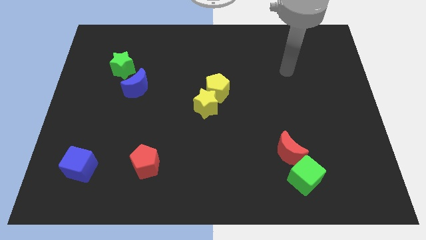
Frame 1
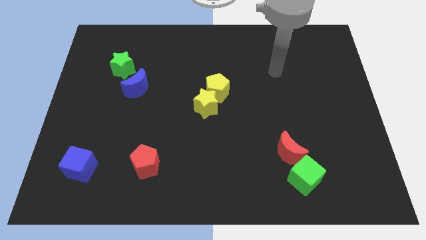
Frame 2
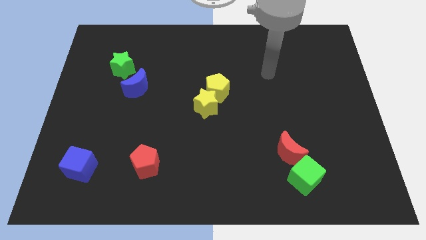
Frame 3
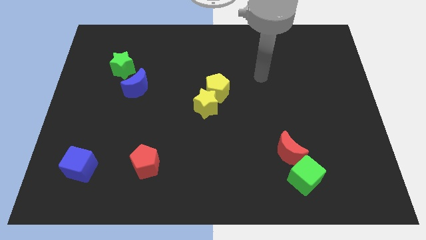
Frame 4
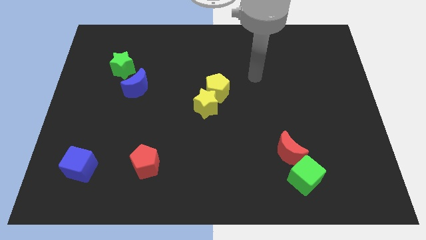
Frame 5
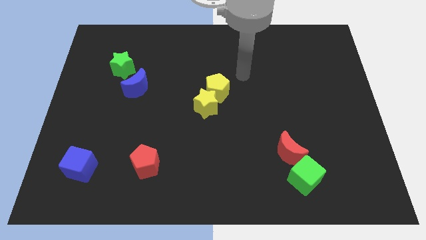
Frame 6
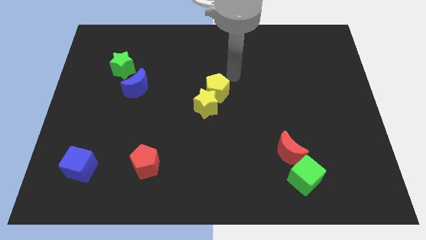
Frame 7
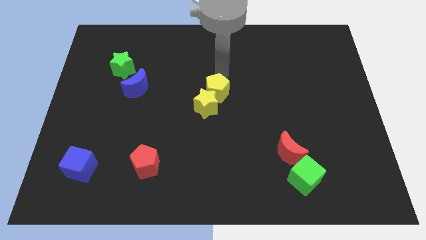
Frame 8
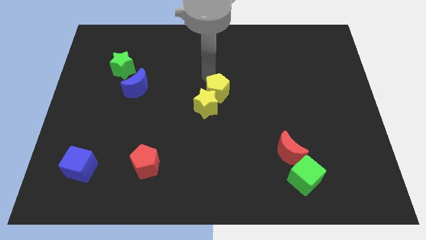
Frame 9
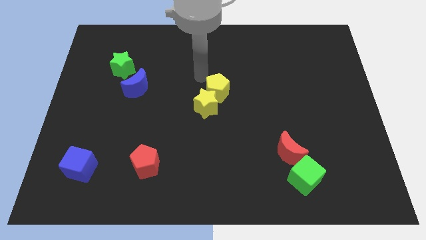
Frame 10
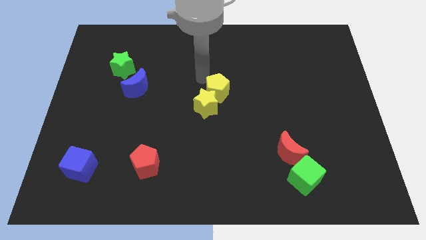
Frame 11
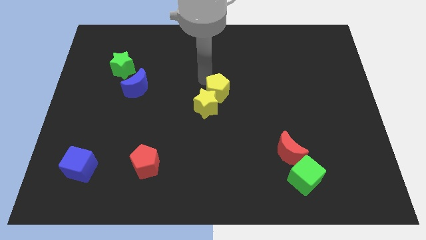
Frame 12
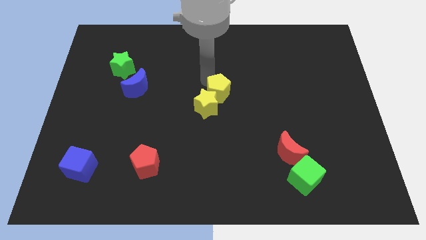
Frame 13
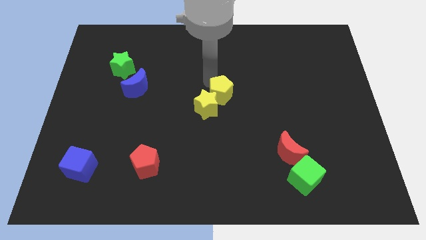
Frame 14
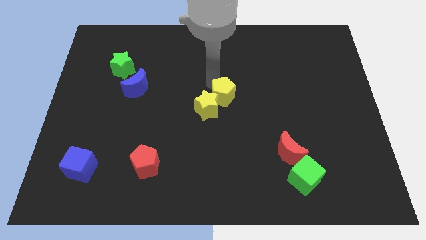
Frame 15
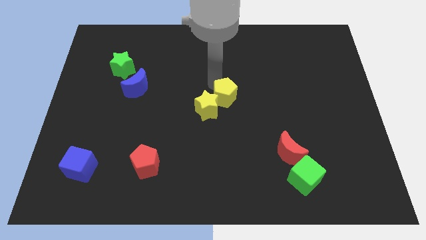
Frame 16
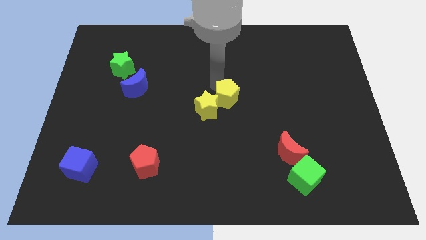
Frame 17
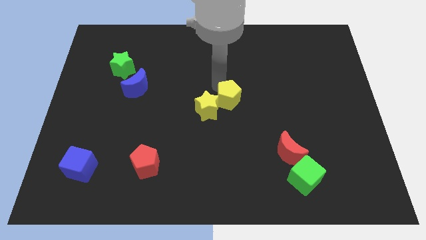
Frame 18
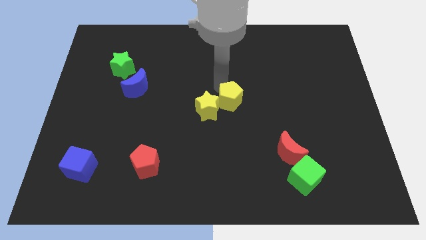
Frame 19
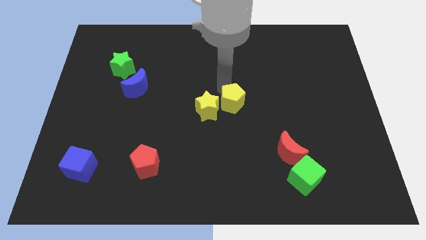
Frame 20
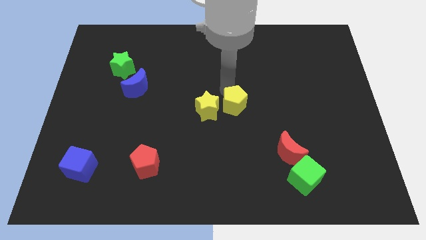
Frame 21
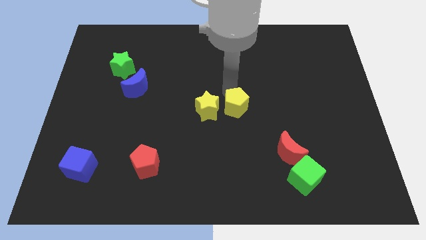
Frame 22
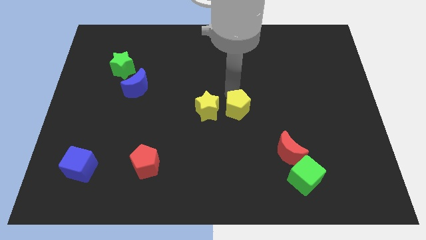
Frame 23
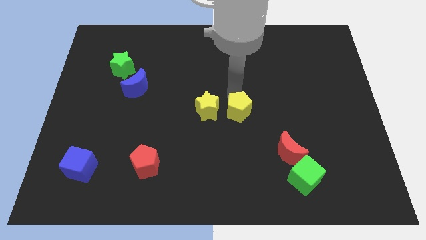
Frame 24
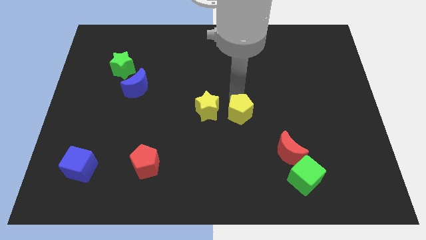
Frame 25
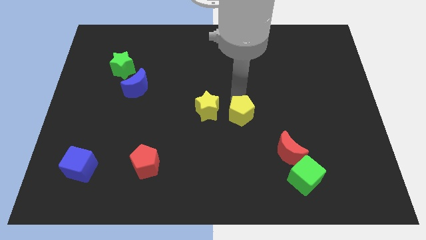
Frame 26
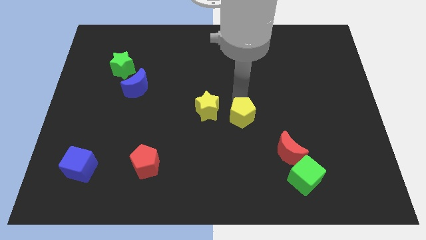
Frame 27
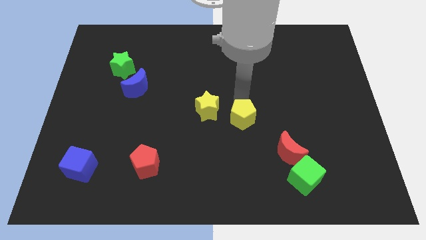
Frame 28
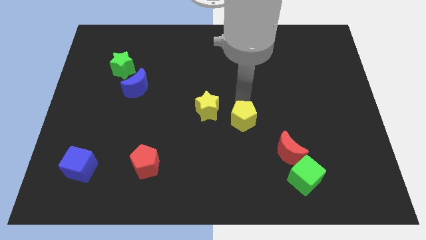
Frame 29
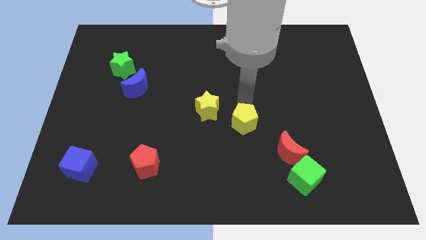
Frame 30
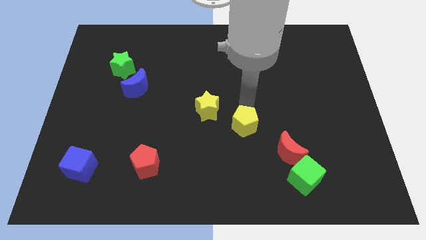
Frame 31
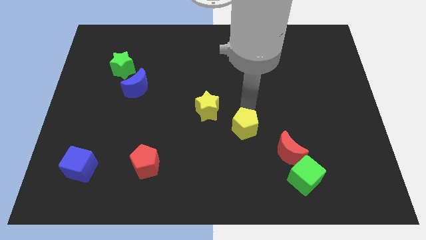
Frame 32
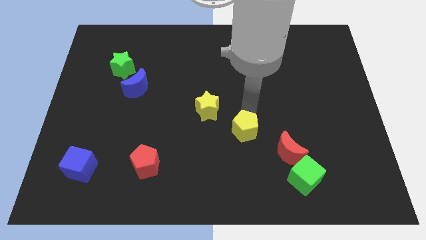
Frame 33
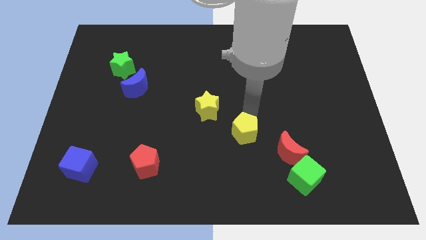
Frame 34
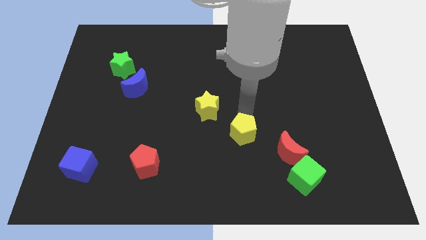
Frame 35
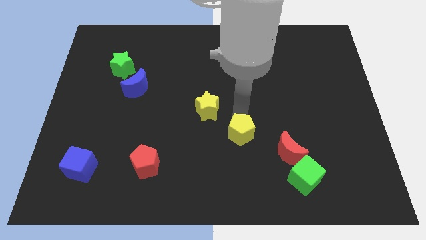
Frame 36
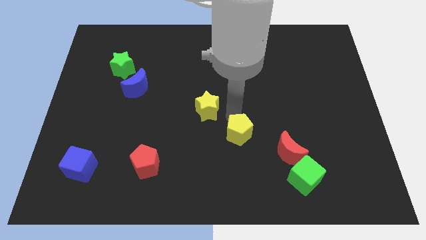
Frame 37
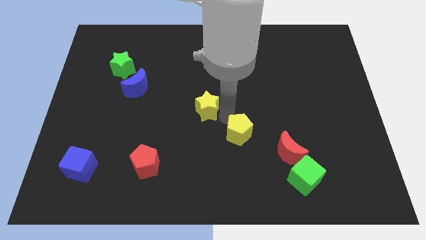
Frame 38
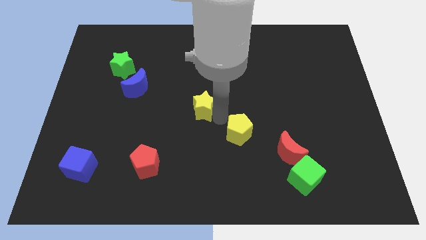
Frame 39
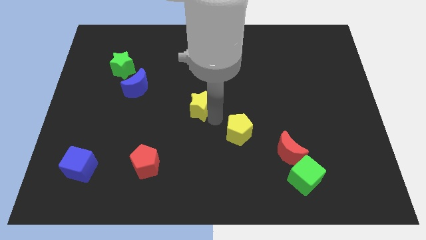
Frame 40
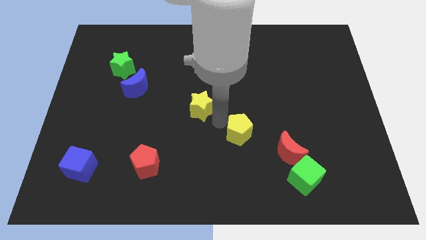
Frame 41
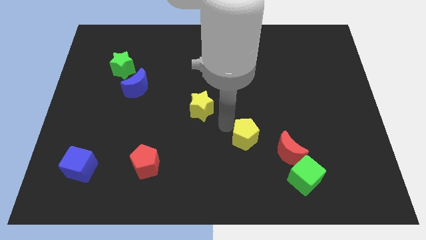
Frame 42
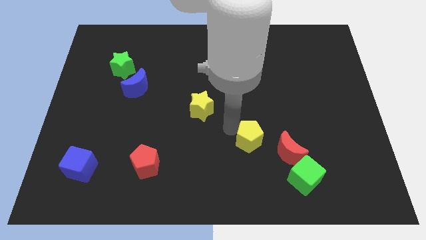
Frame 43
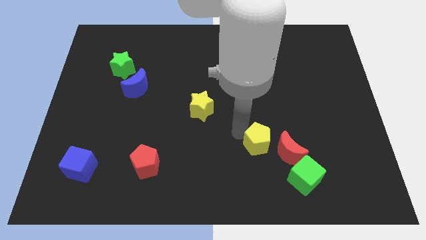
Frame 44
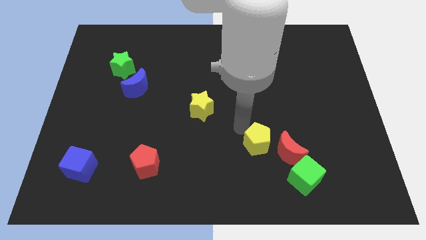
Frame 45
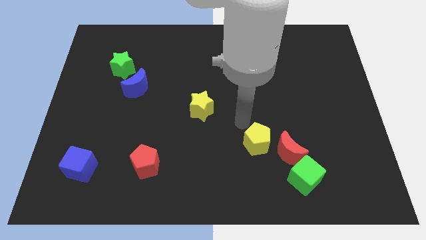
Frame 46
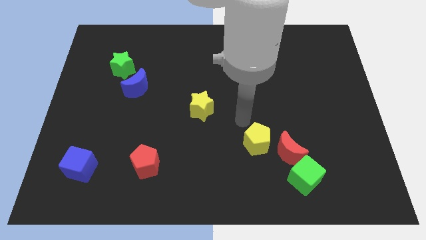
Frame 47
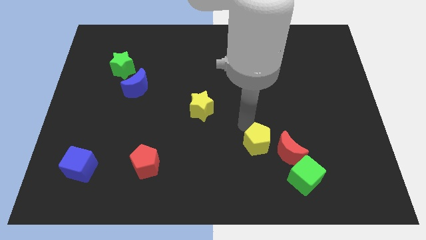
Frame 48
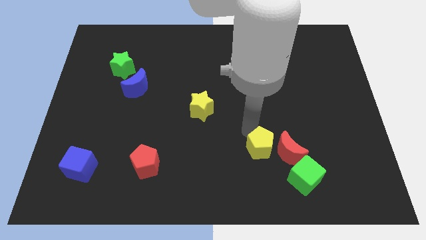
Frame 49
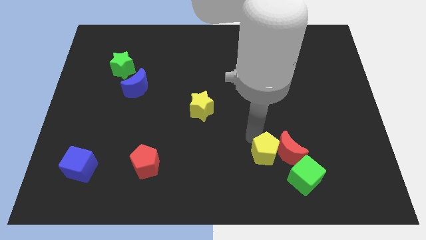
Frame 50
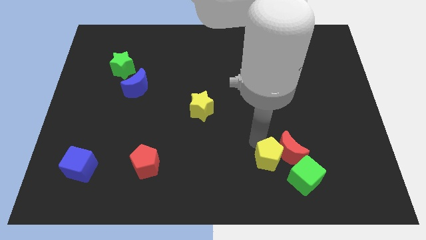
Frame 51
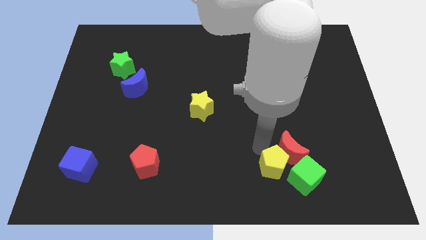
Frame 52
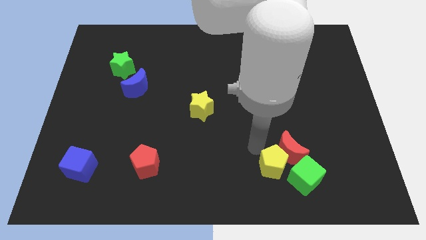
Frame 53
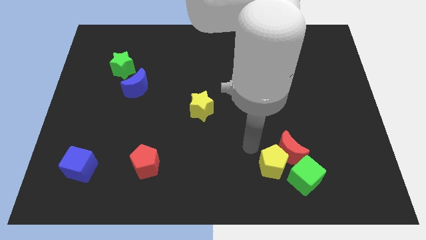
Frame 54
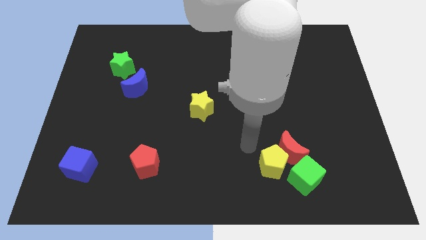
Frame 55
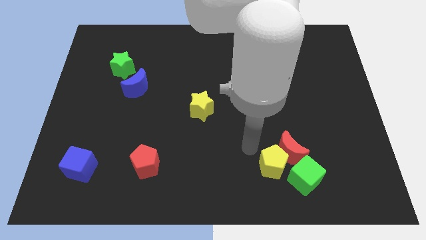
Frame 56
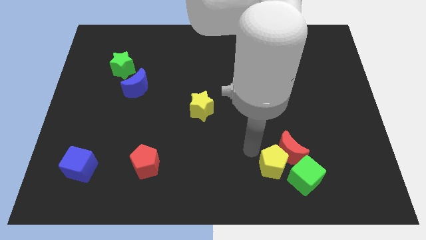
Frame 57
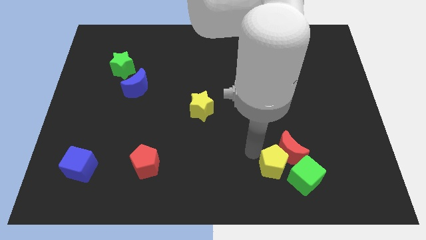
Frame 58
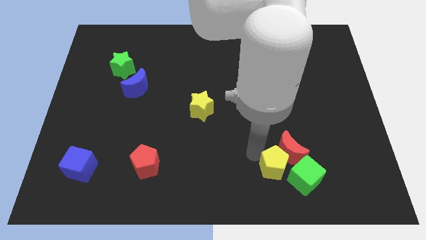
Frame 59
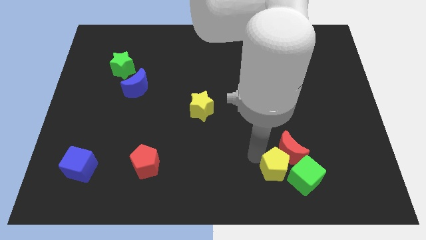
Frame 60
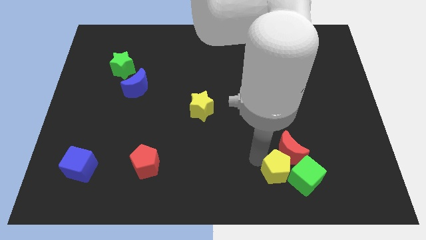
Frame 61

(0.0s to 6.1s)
slide the yellow pentagon to the green cube

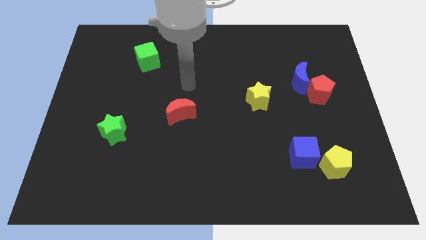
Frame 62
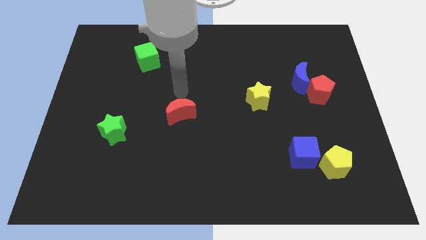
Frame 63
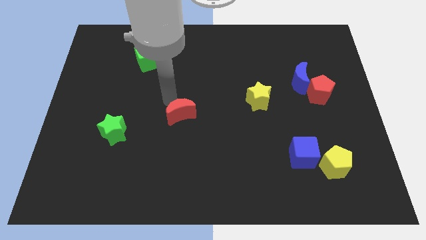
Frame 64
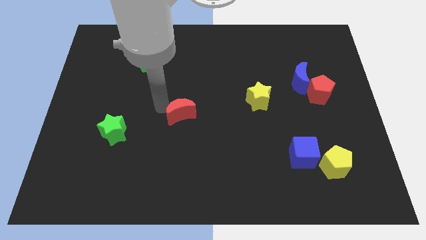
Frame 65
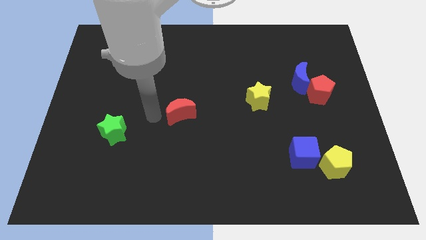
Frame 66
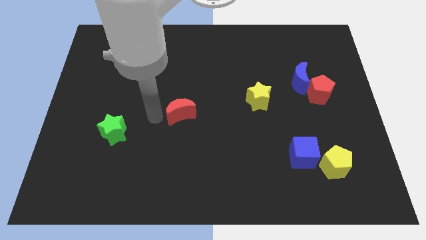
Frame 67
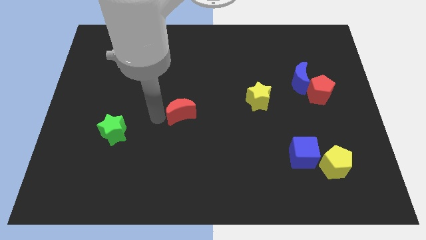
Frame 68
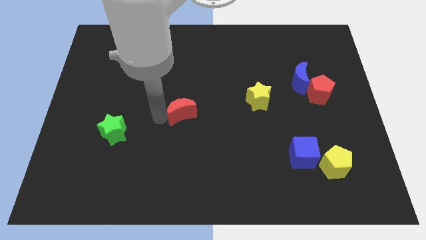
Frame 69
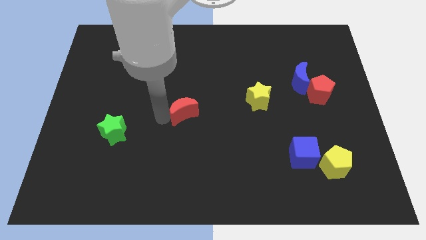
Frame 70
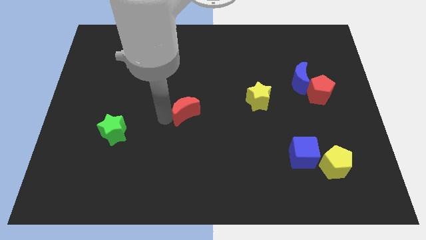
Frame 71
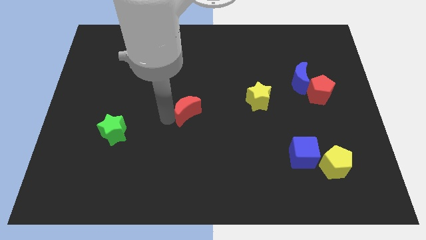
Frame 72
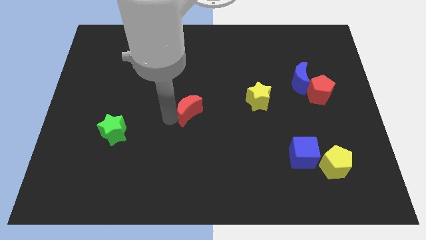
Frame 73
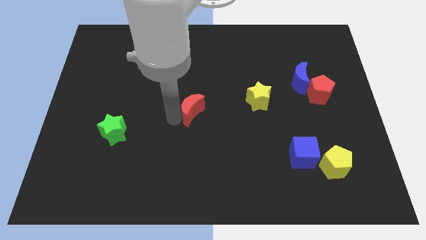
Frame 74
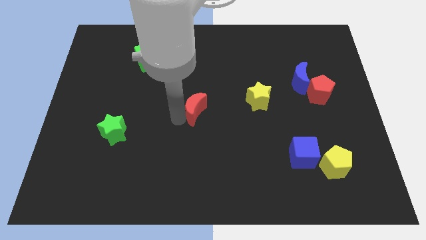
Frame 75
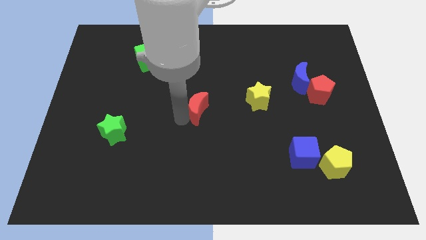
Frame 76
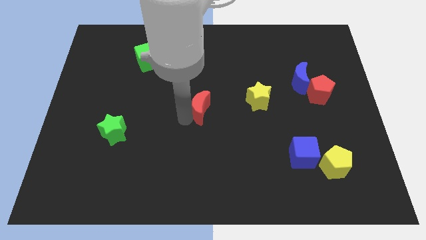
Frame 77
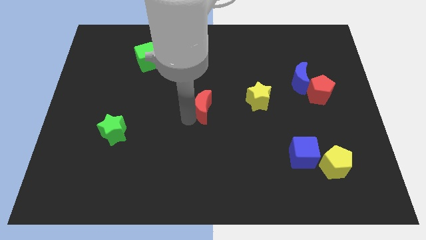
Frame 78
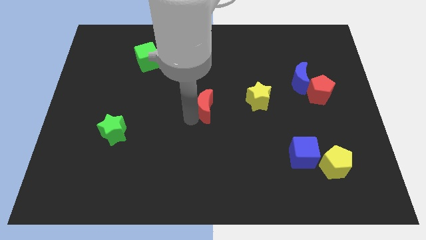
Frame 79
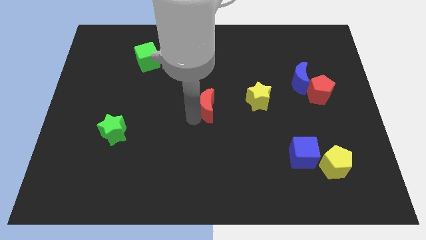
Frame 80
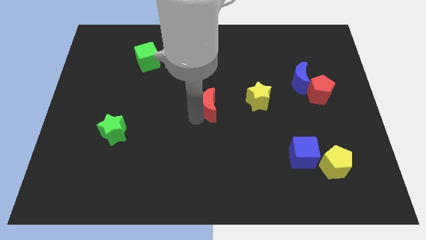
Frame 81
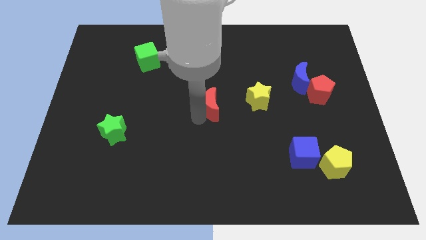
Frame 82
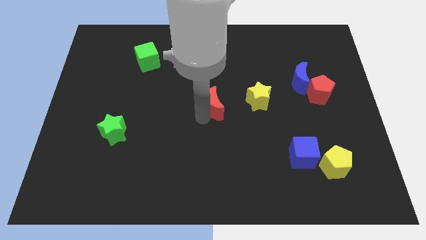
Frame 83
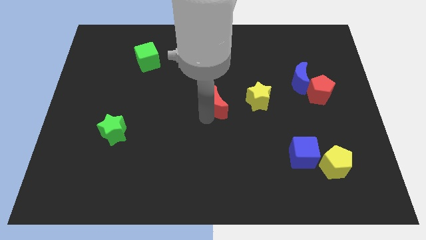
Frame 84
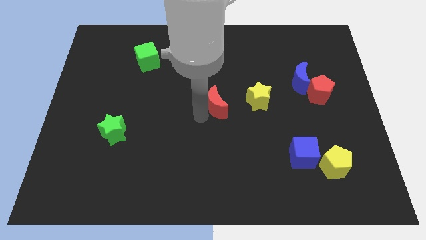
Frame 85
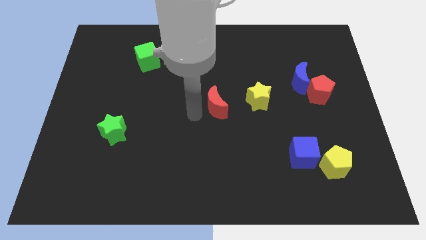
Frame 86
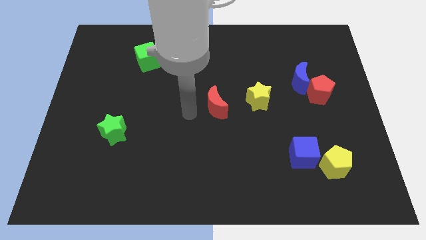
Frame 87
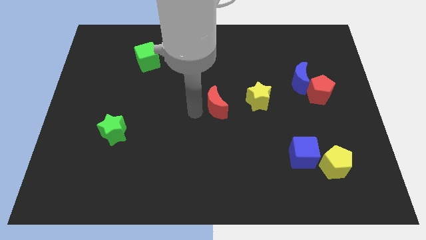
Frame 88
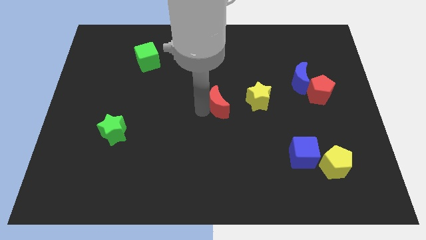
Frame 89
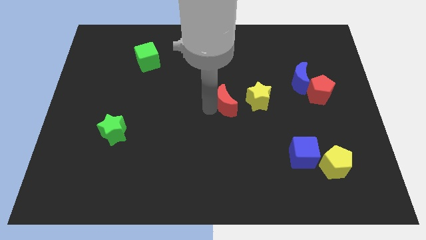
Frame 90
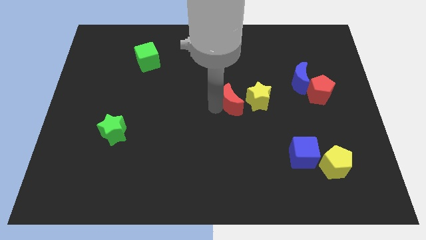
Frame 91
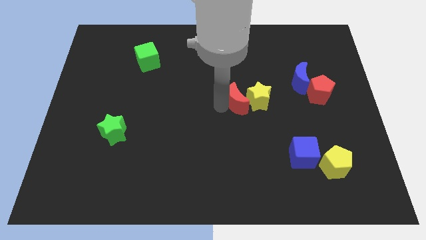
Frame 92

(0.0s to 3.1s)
move the red moon to the yellow star
